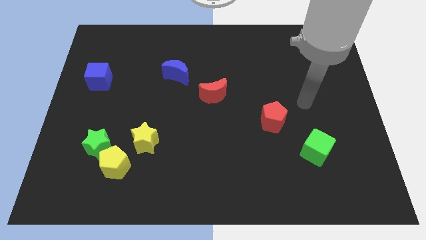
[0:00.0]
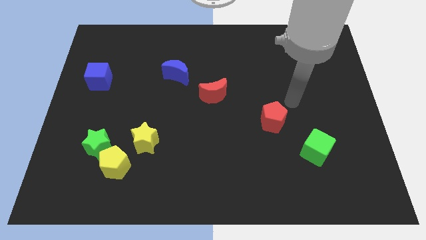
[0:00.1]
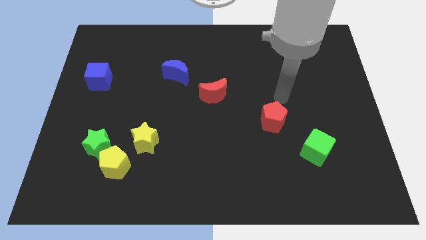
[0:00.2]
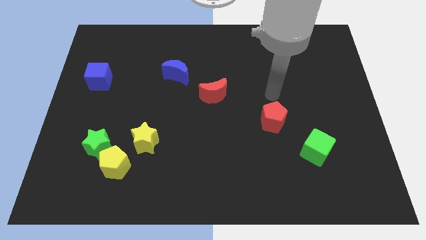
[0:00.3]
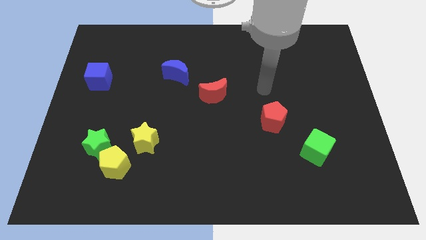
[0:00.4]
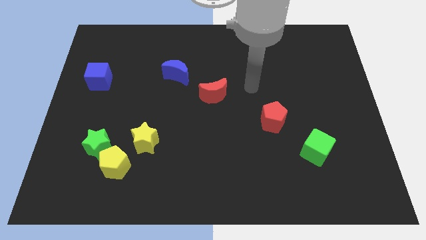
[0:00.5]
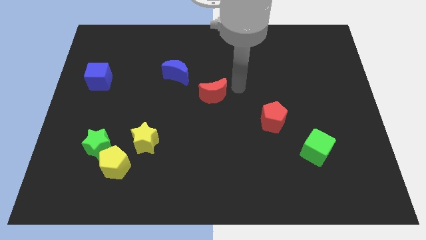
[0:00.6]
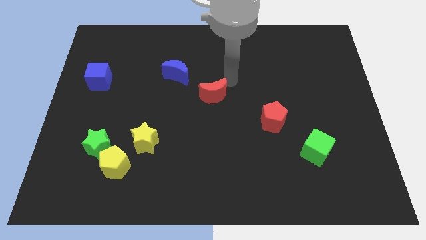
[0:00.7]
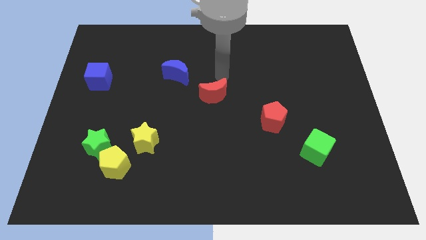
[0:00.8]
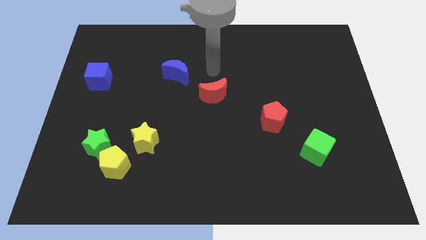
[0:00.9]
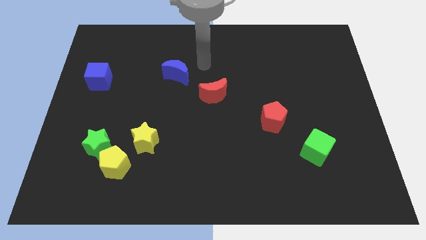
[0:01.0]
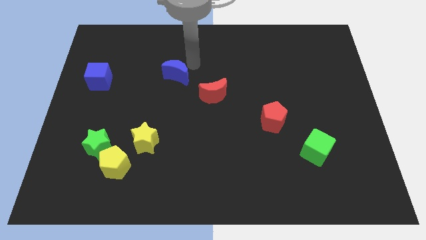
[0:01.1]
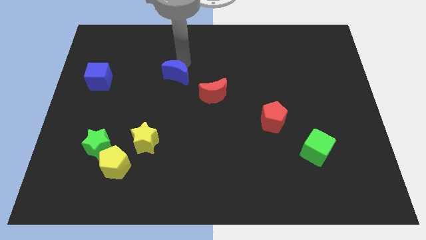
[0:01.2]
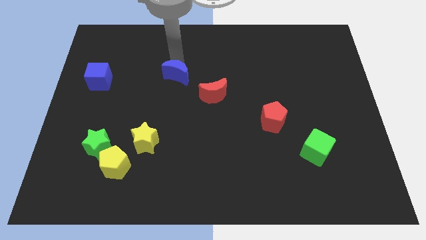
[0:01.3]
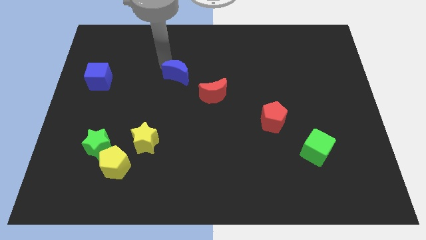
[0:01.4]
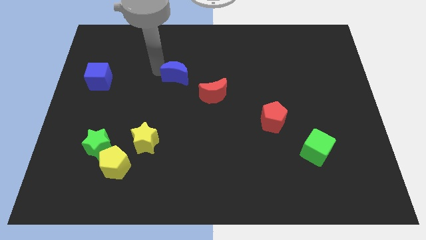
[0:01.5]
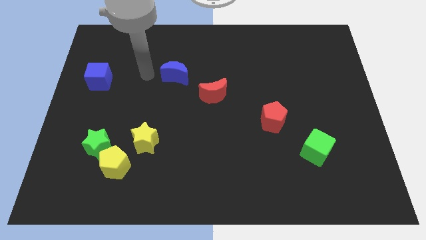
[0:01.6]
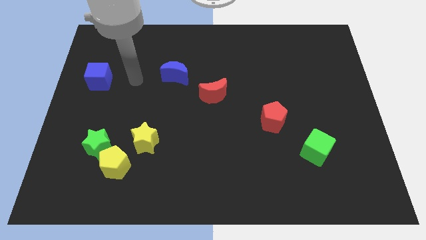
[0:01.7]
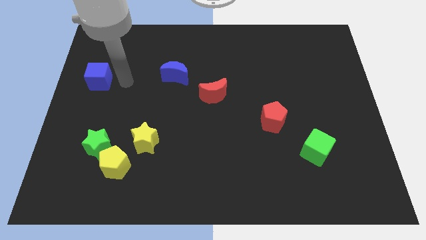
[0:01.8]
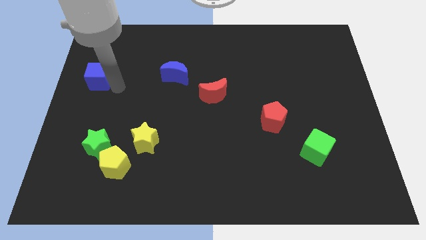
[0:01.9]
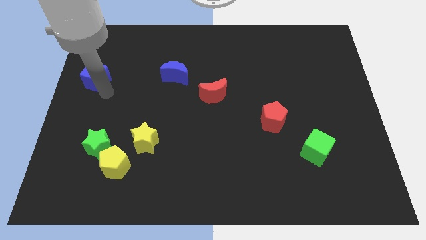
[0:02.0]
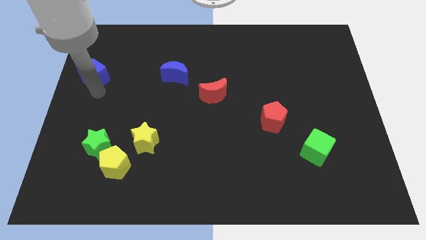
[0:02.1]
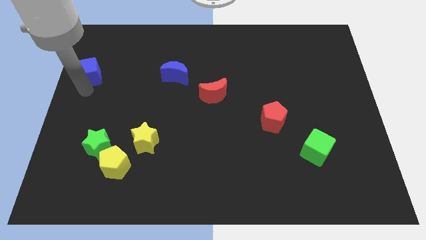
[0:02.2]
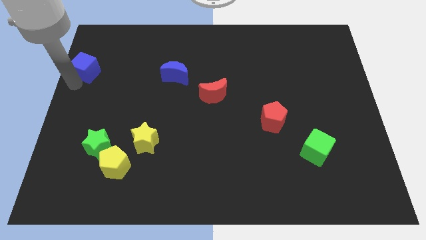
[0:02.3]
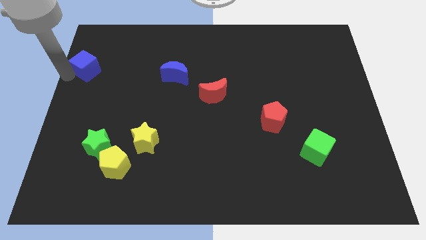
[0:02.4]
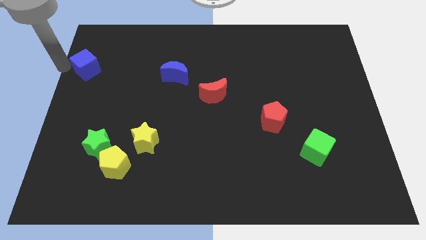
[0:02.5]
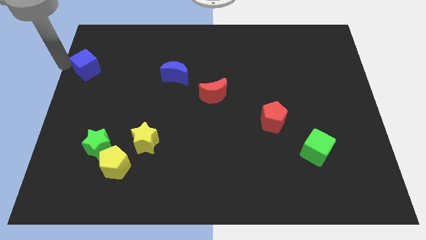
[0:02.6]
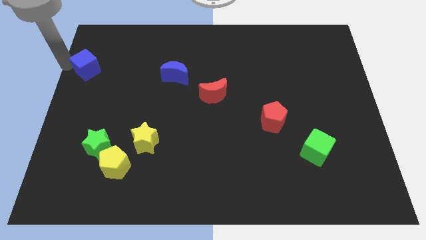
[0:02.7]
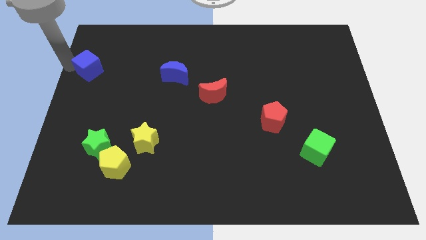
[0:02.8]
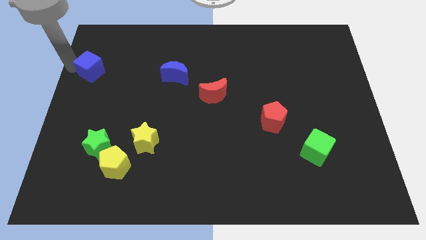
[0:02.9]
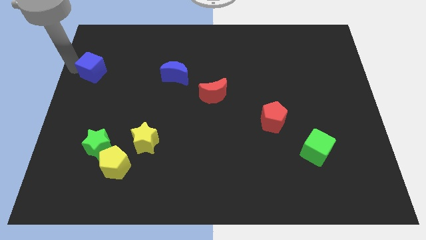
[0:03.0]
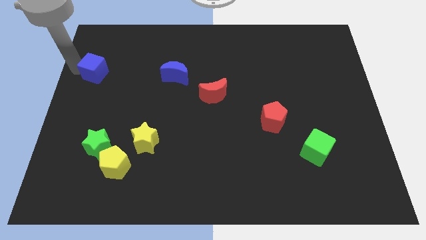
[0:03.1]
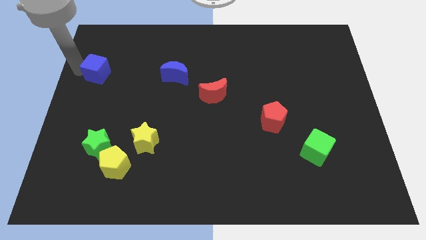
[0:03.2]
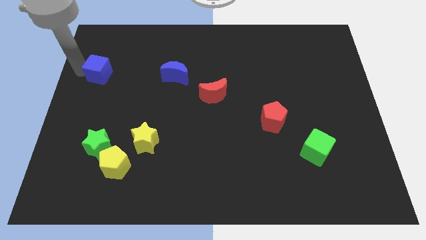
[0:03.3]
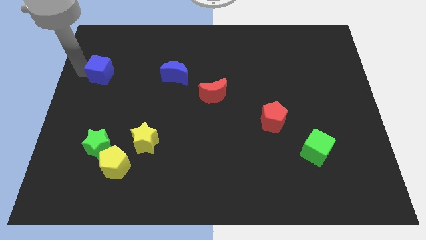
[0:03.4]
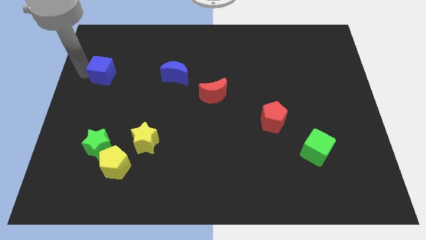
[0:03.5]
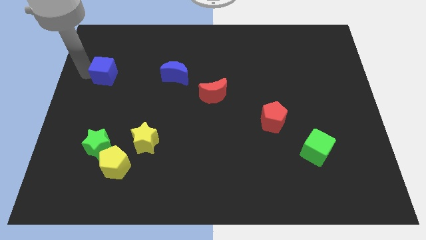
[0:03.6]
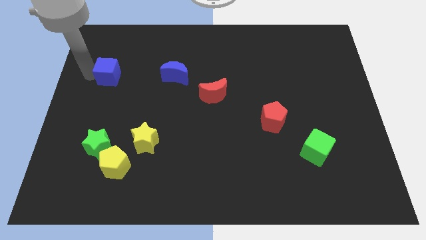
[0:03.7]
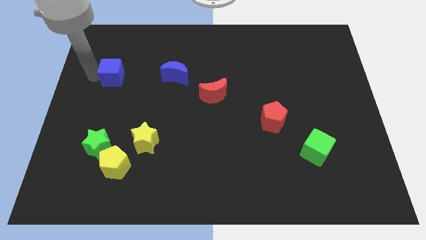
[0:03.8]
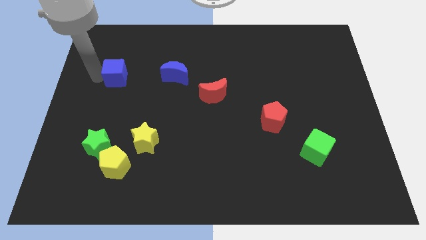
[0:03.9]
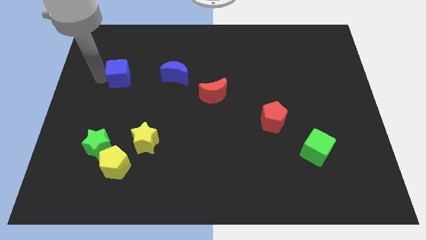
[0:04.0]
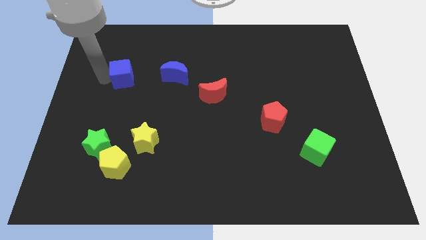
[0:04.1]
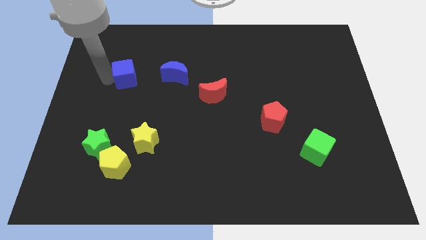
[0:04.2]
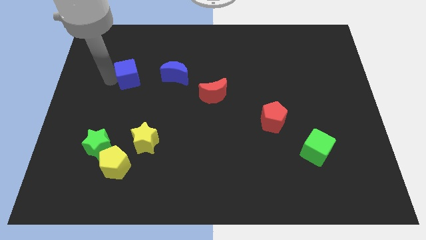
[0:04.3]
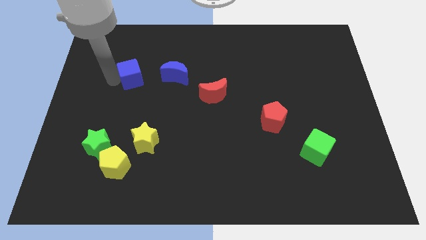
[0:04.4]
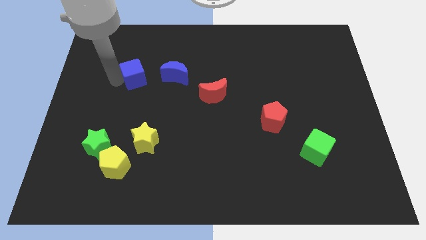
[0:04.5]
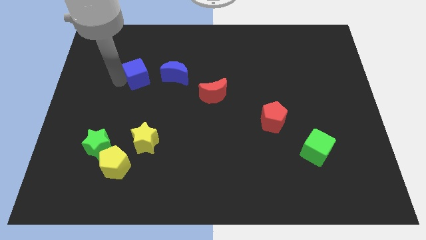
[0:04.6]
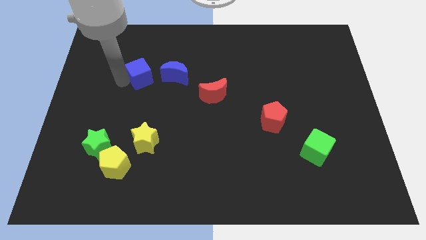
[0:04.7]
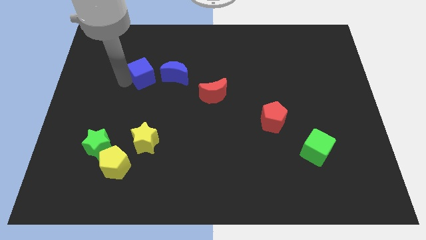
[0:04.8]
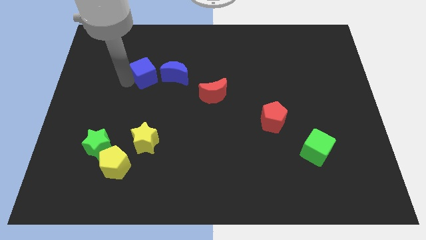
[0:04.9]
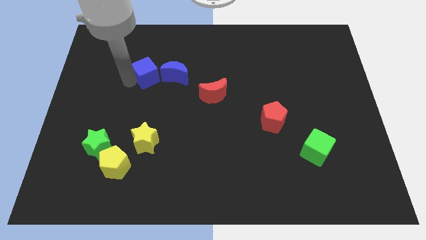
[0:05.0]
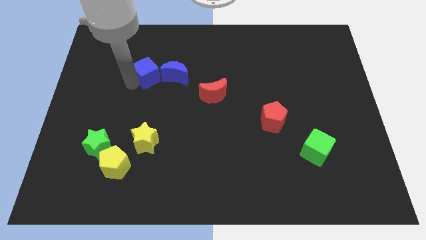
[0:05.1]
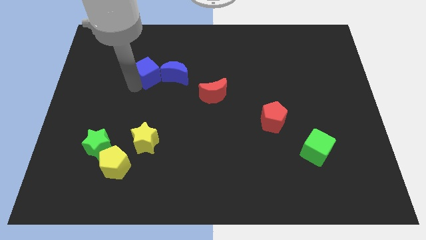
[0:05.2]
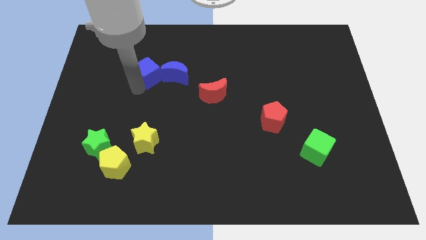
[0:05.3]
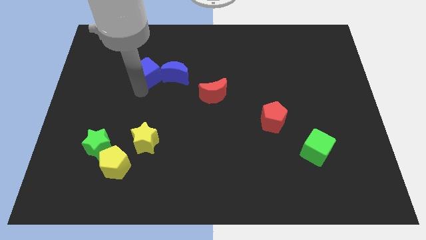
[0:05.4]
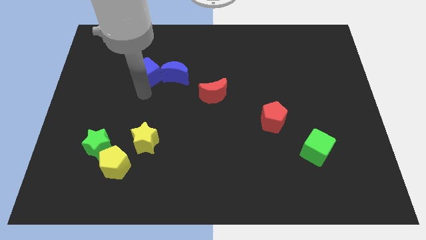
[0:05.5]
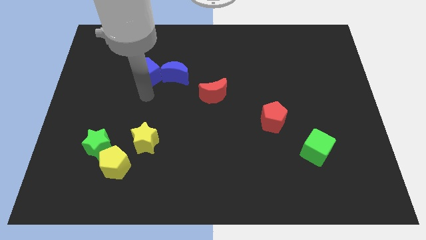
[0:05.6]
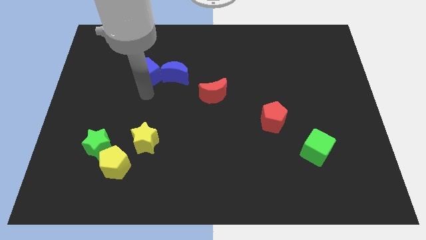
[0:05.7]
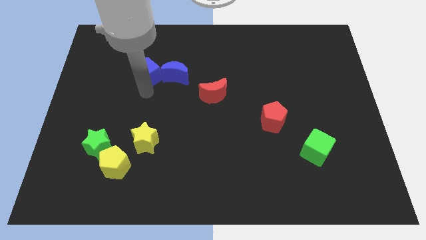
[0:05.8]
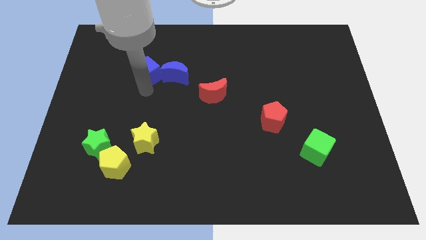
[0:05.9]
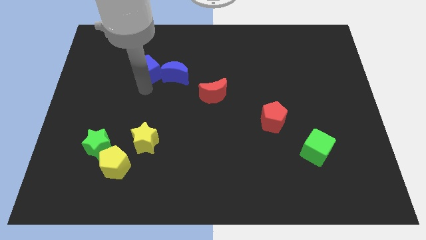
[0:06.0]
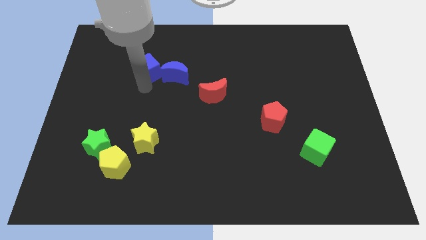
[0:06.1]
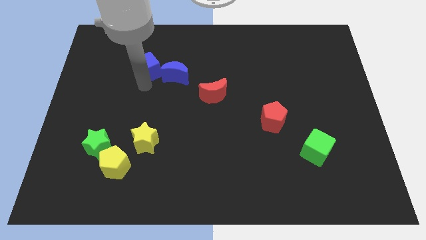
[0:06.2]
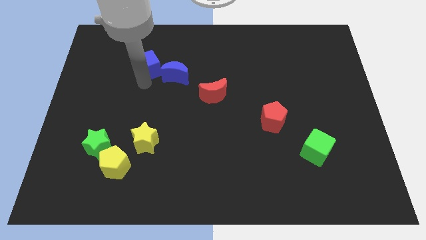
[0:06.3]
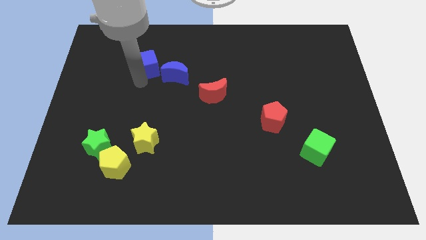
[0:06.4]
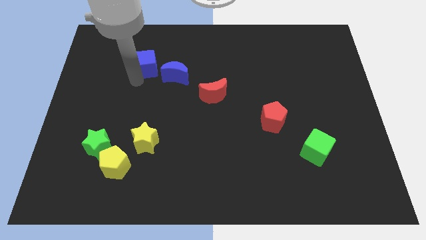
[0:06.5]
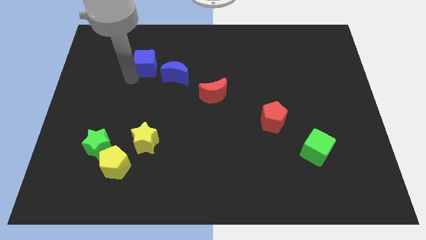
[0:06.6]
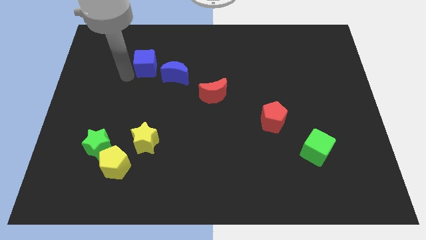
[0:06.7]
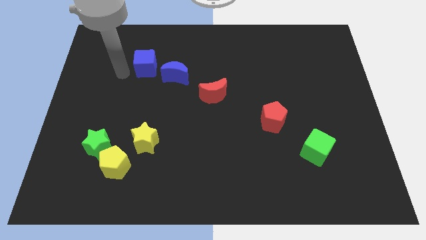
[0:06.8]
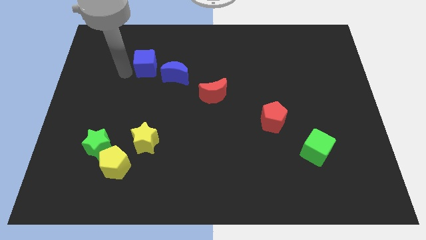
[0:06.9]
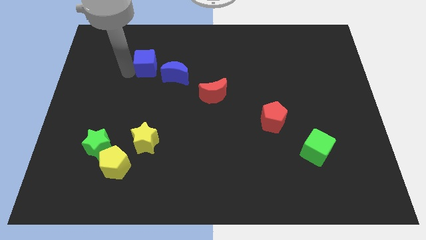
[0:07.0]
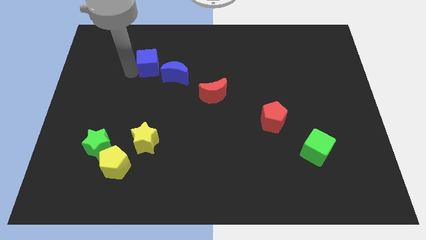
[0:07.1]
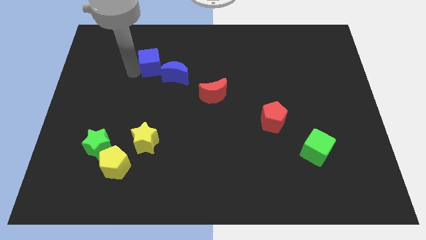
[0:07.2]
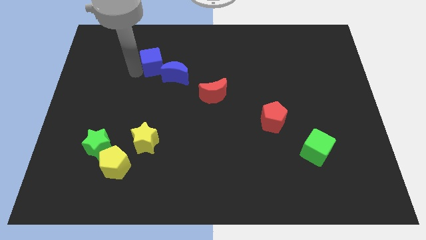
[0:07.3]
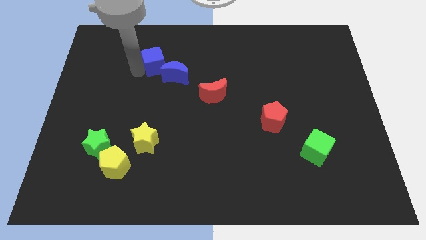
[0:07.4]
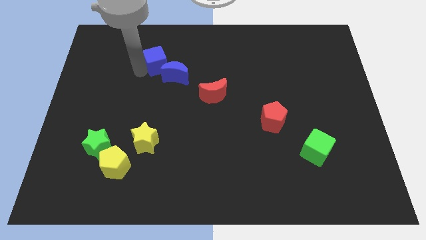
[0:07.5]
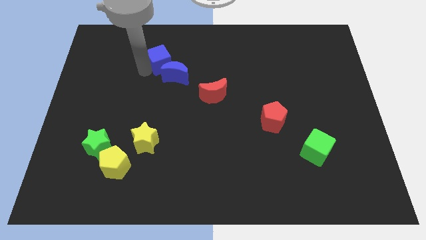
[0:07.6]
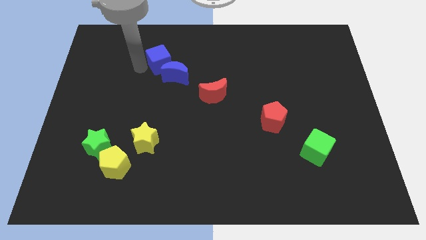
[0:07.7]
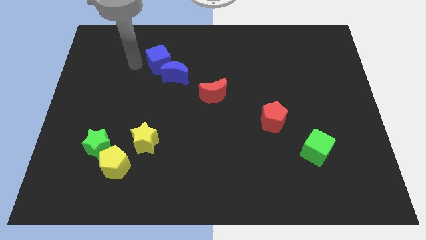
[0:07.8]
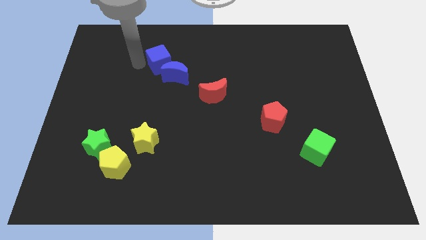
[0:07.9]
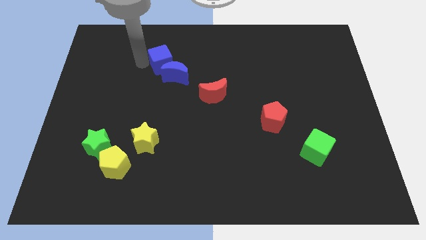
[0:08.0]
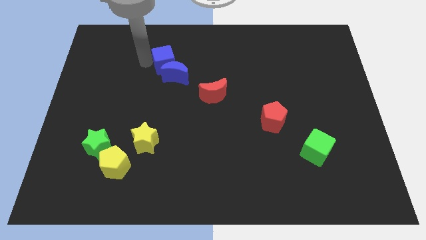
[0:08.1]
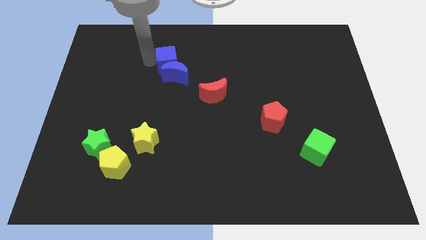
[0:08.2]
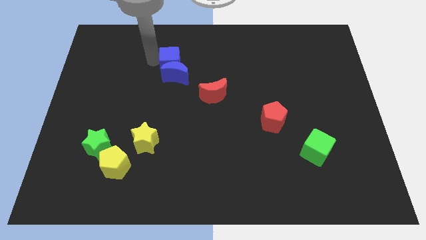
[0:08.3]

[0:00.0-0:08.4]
slide the blue cube to the top right side of the blue moon
